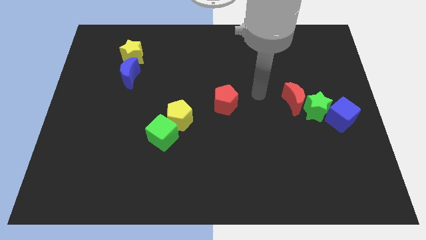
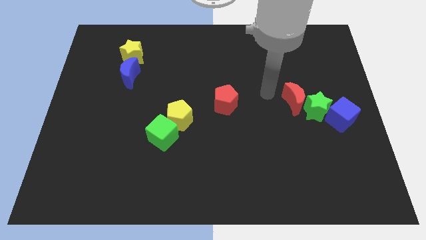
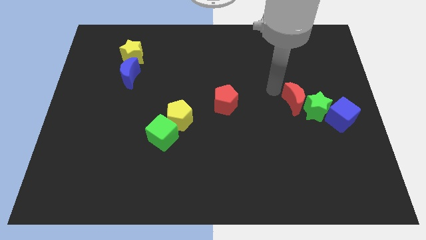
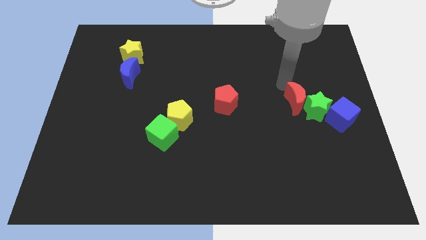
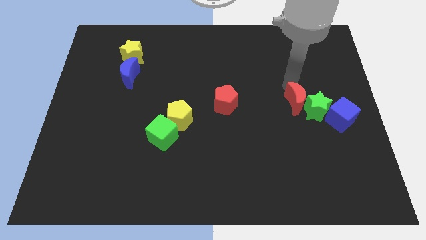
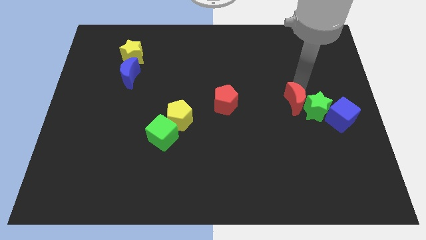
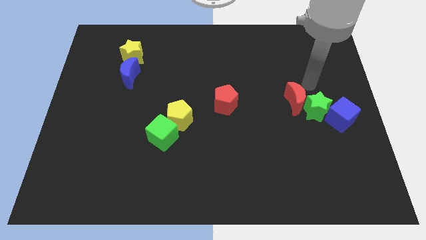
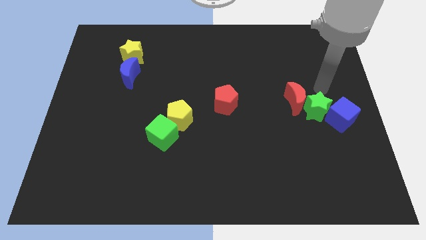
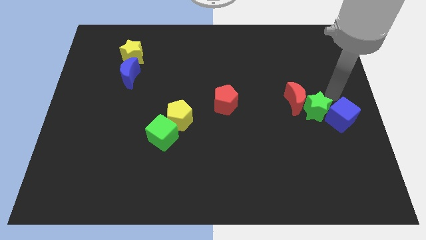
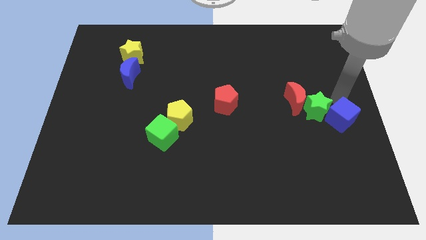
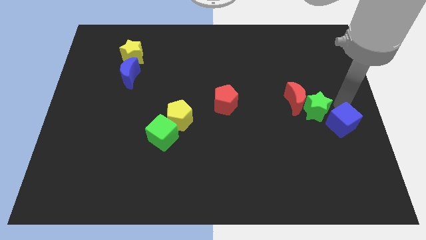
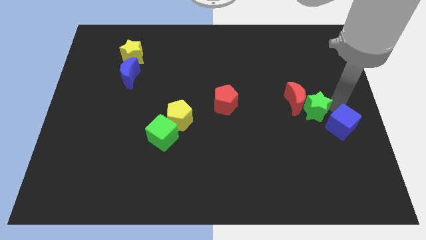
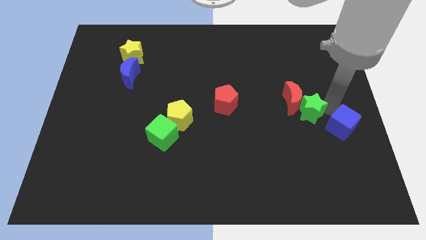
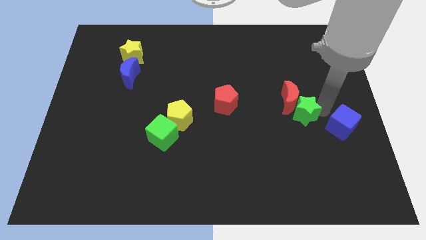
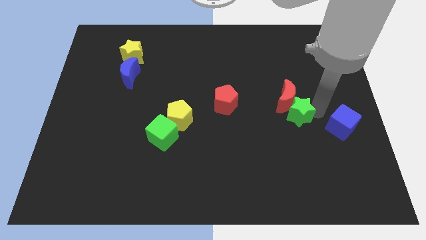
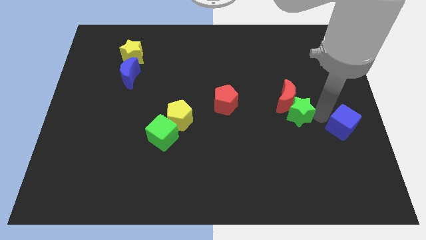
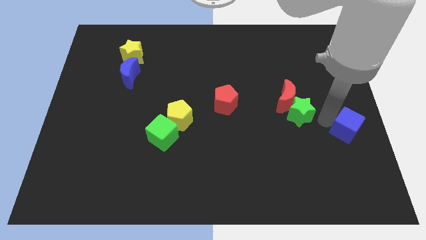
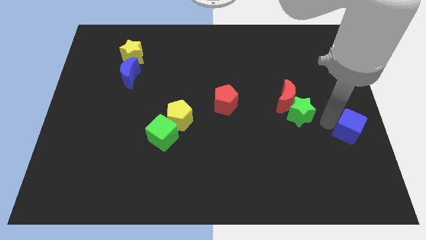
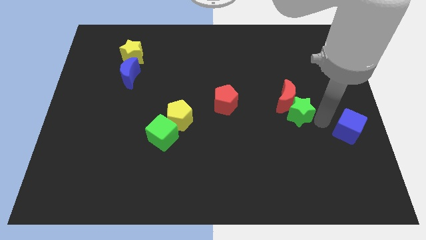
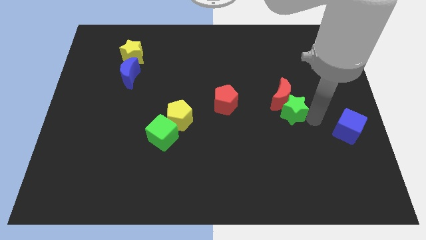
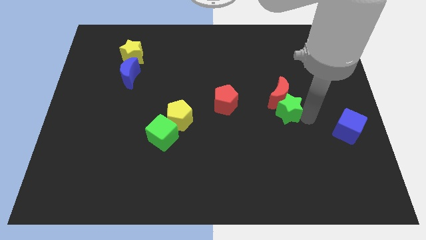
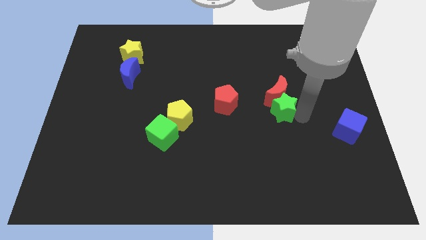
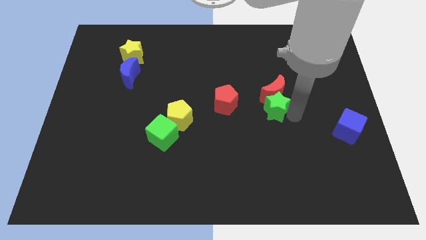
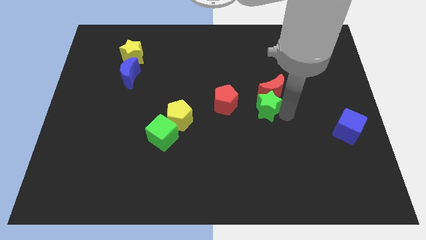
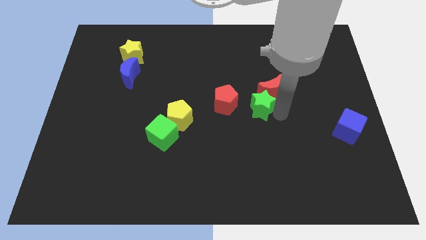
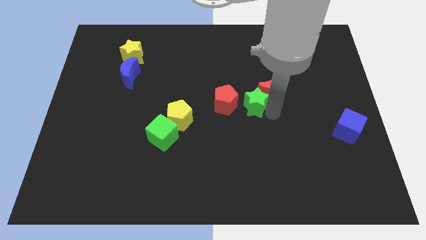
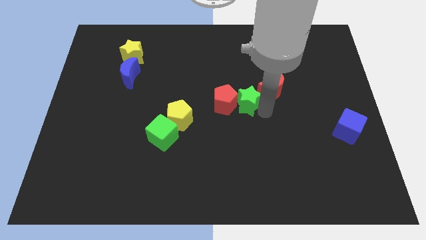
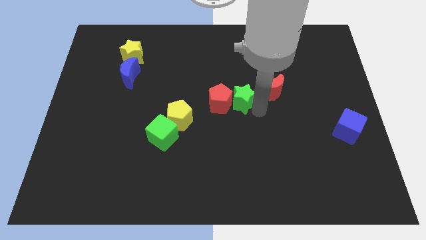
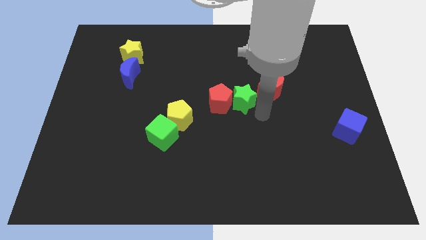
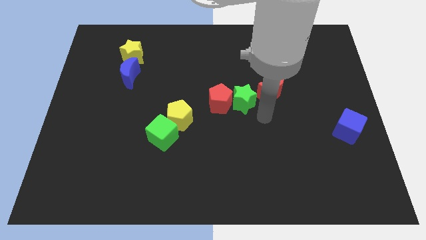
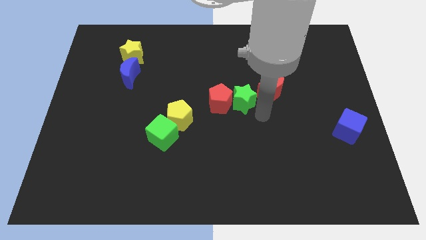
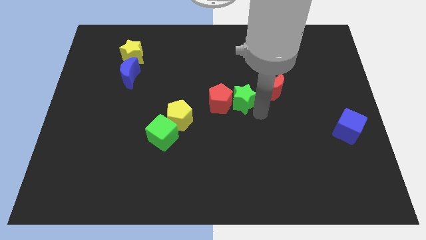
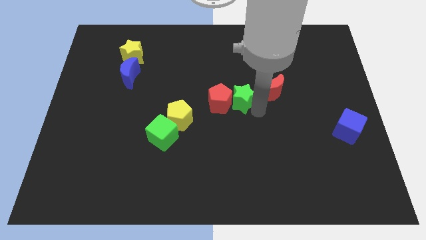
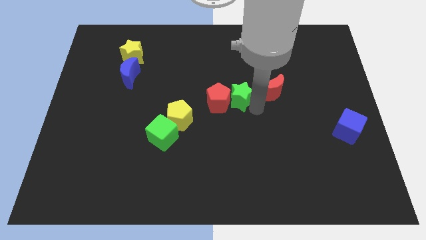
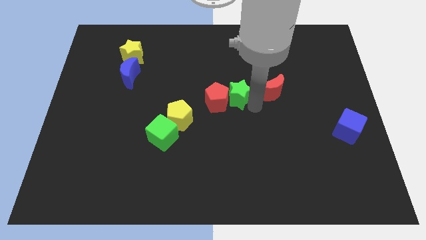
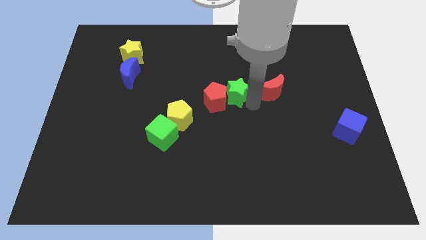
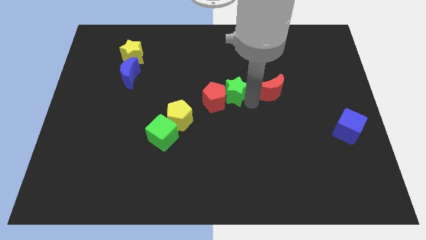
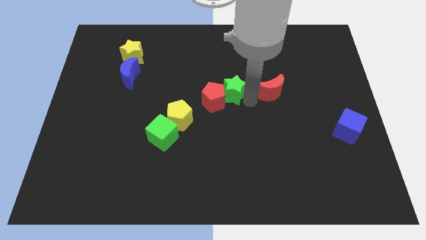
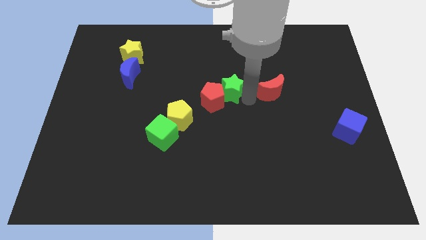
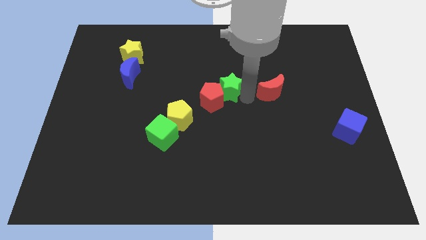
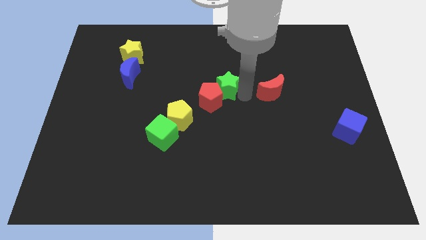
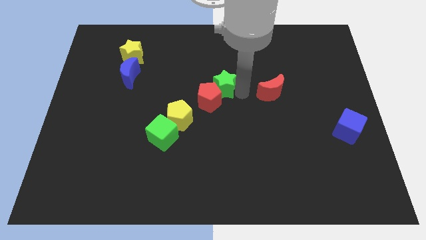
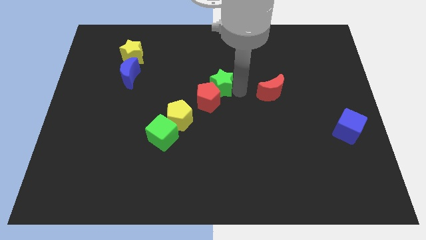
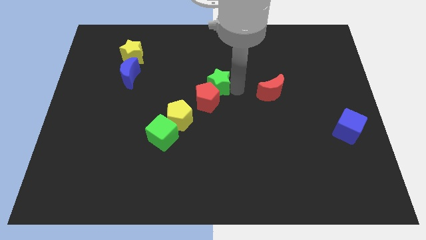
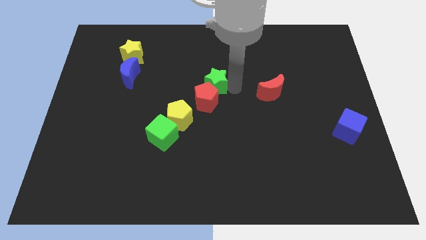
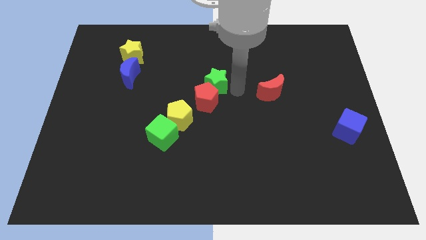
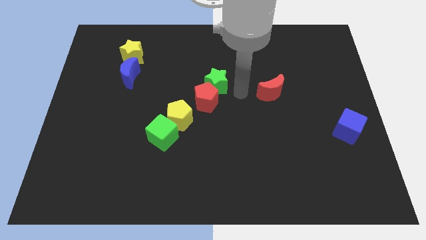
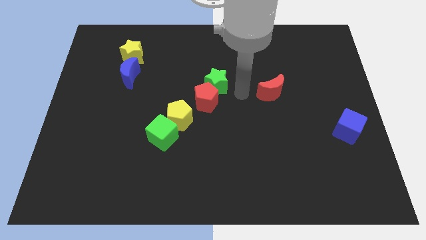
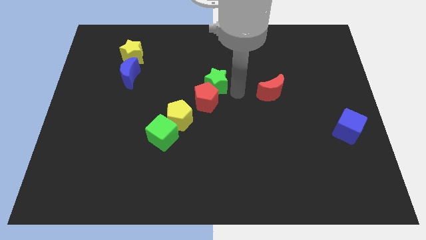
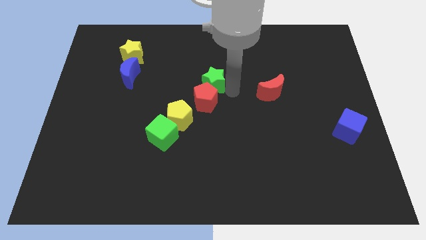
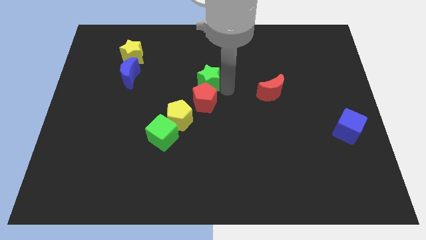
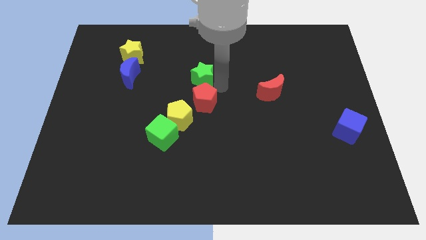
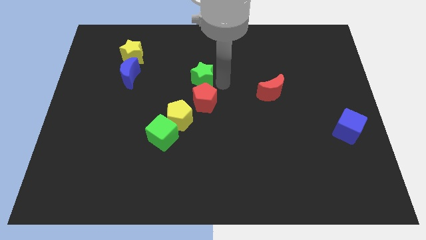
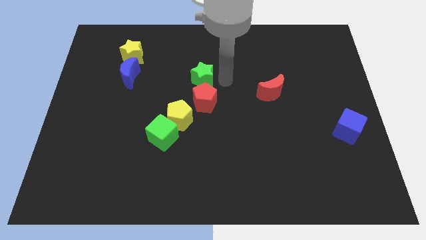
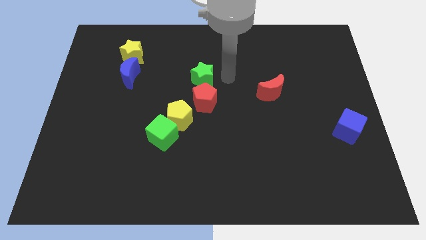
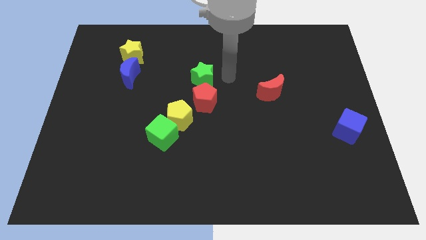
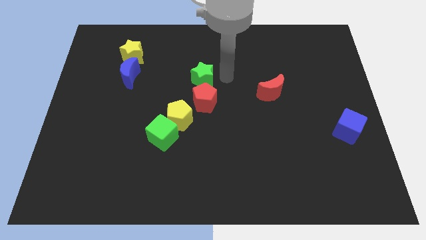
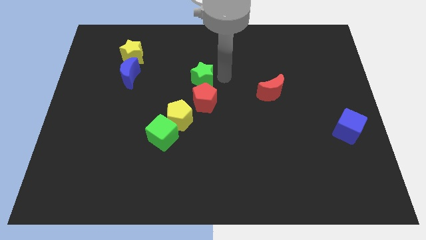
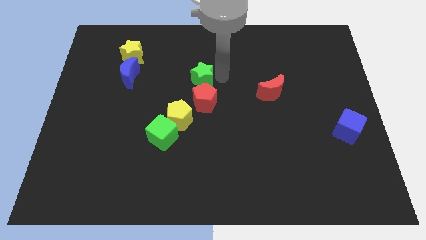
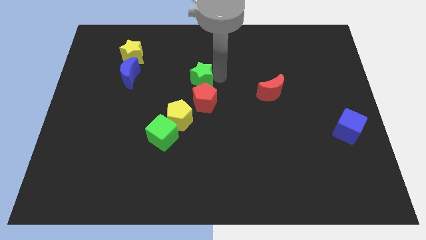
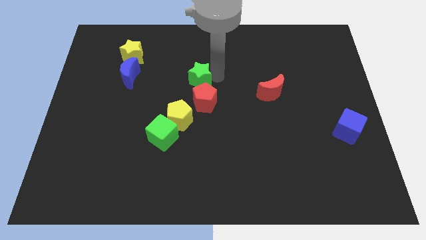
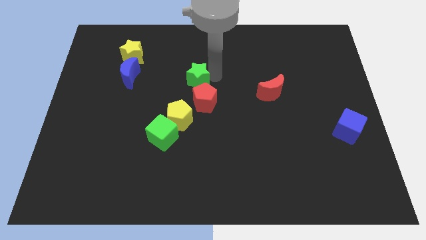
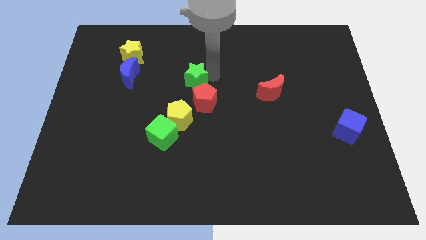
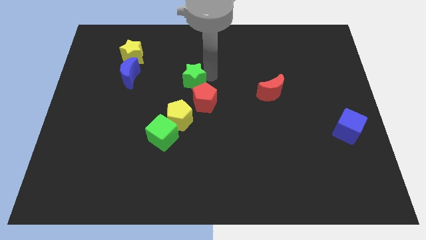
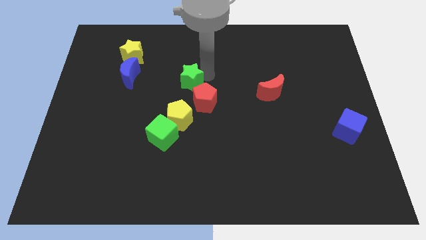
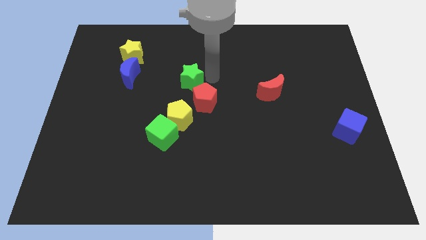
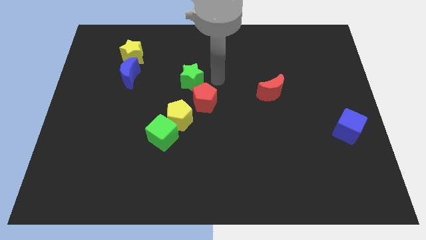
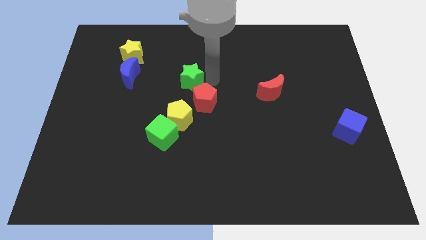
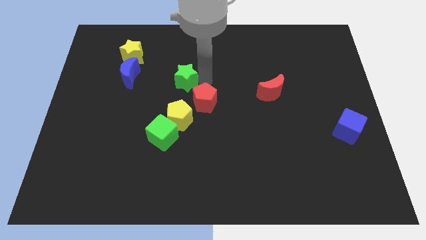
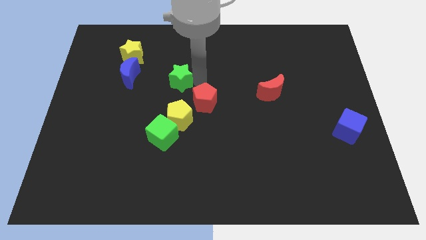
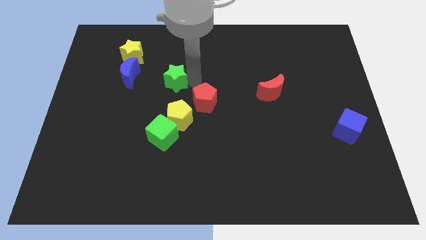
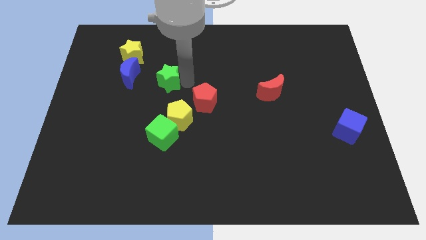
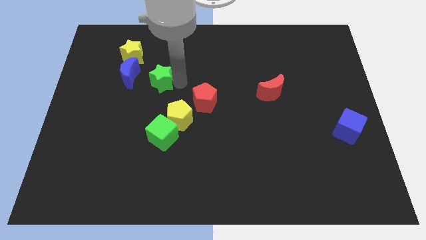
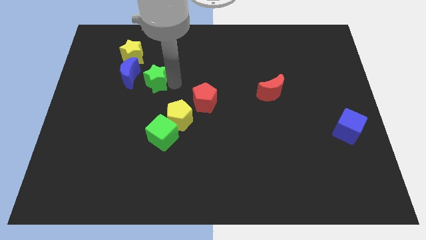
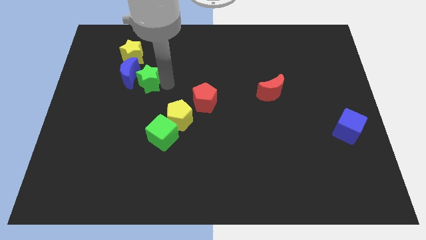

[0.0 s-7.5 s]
move the green star towards the blue moon
